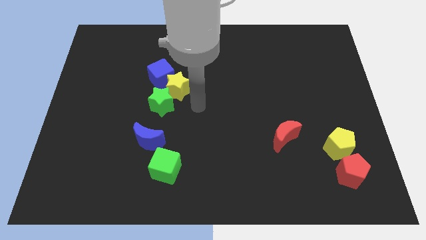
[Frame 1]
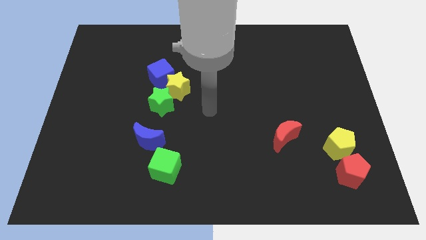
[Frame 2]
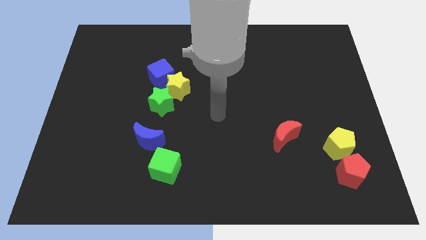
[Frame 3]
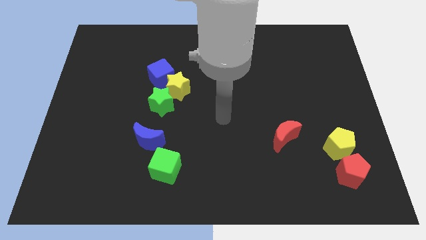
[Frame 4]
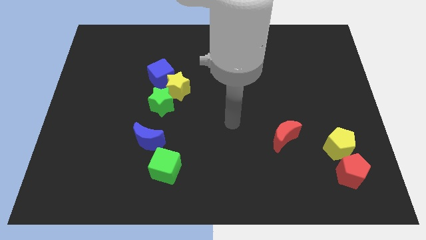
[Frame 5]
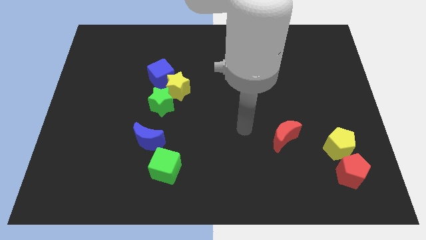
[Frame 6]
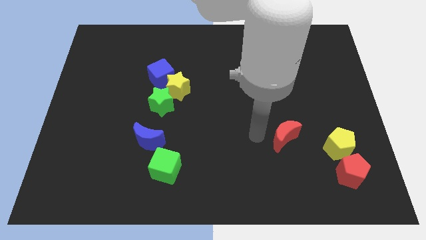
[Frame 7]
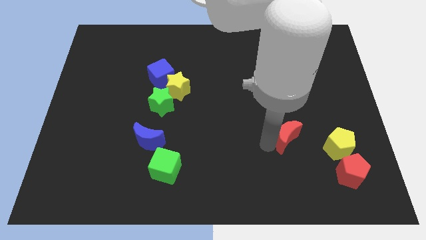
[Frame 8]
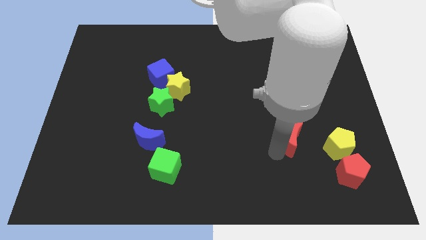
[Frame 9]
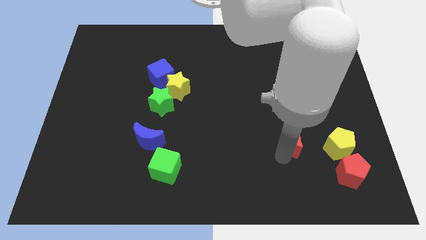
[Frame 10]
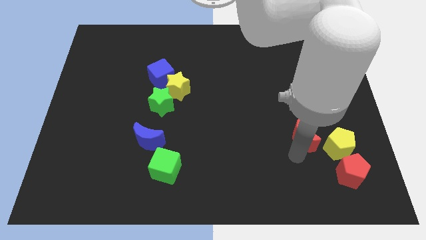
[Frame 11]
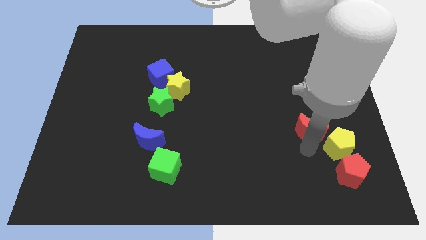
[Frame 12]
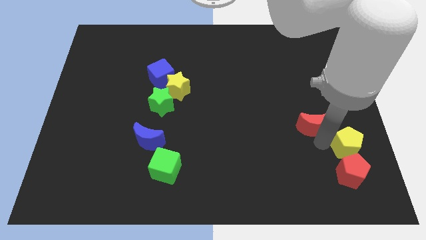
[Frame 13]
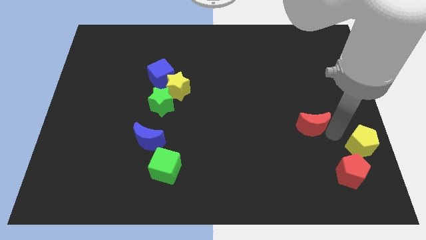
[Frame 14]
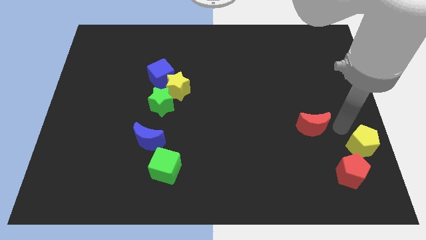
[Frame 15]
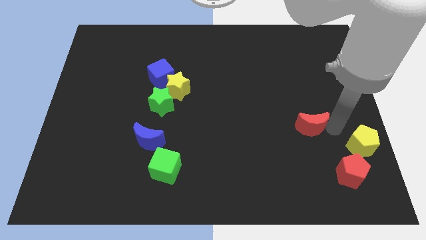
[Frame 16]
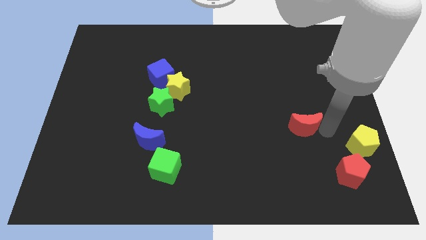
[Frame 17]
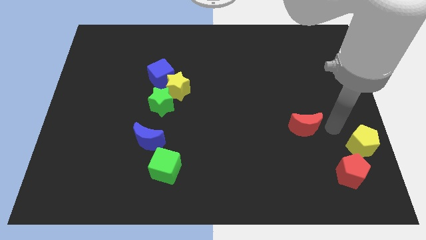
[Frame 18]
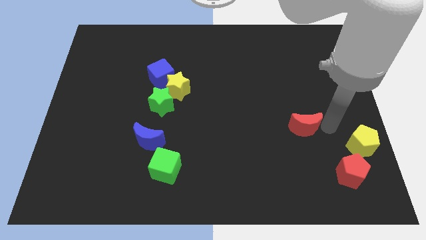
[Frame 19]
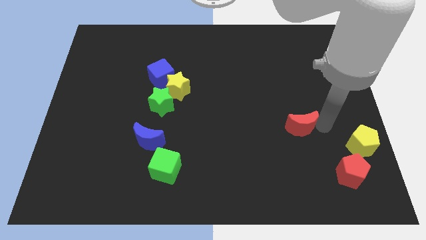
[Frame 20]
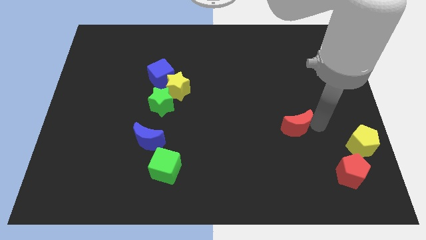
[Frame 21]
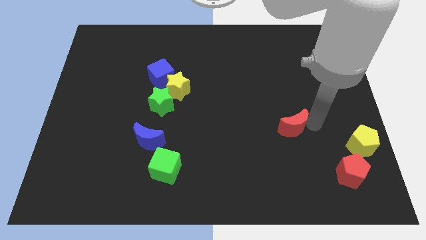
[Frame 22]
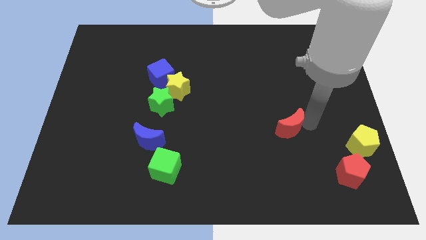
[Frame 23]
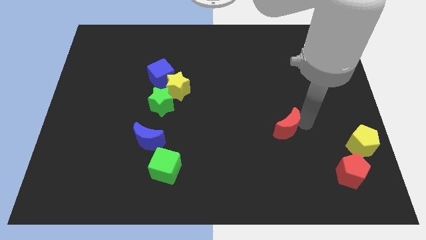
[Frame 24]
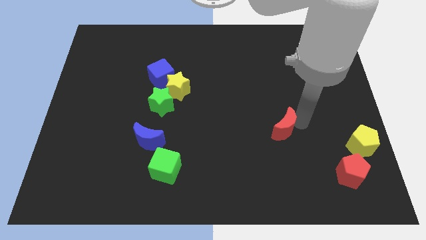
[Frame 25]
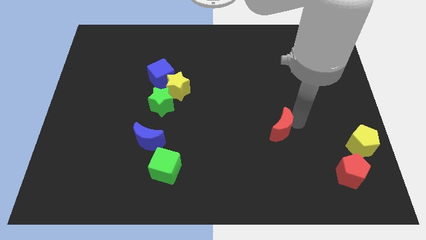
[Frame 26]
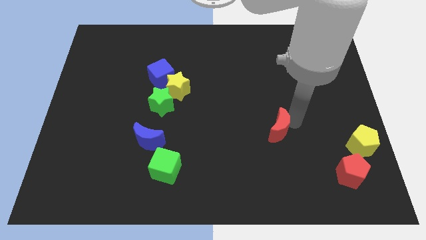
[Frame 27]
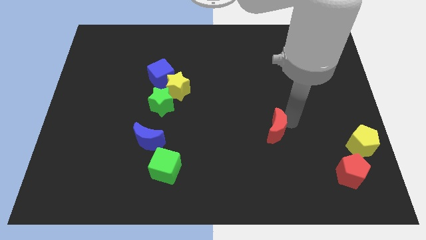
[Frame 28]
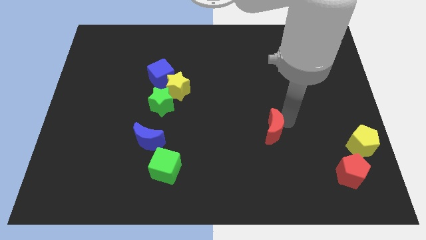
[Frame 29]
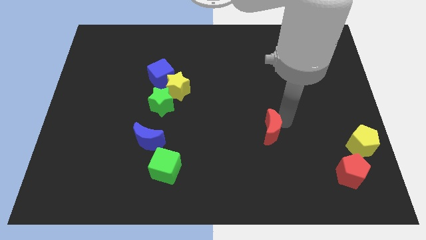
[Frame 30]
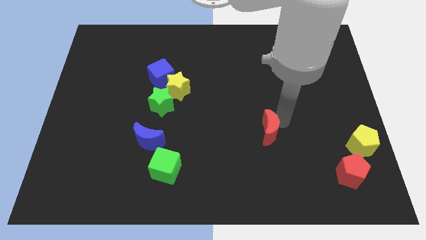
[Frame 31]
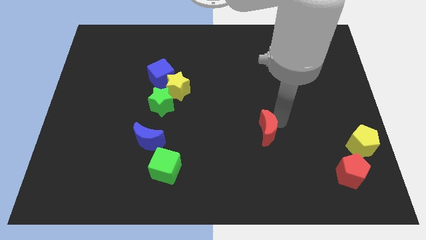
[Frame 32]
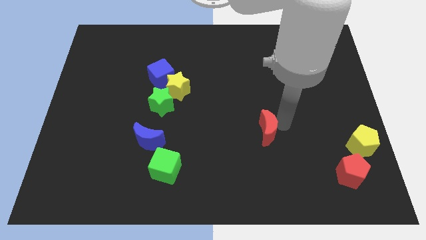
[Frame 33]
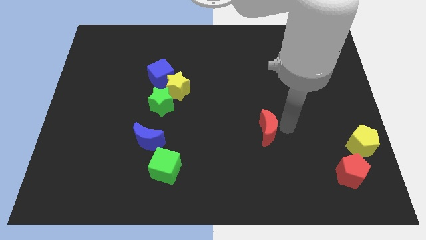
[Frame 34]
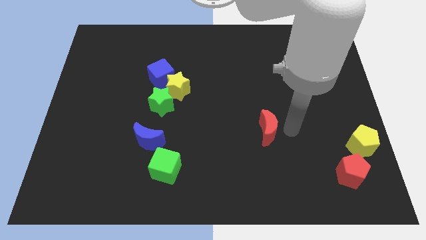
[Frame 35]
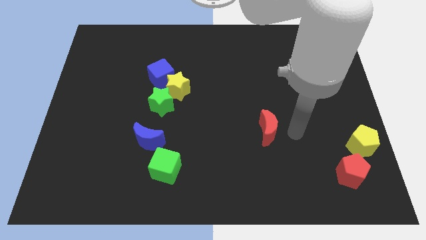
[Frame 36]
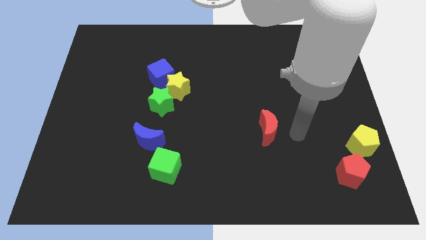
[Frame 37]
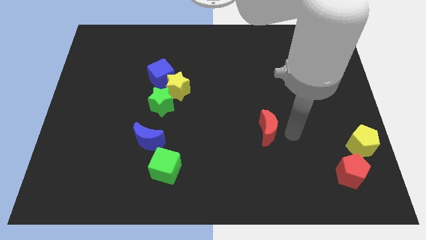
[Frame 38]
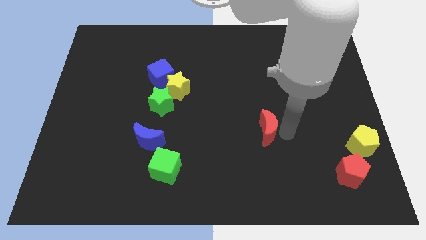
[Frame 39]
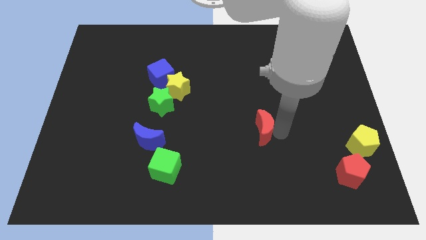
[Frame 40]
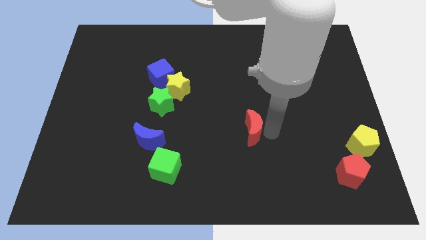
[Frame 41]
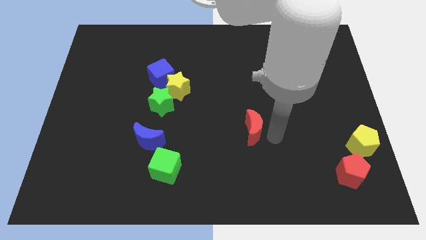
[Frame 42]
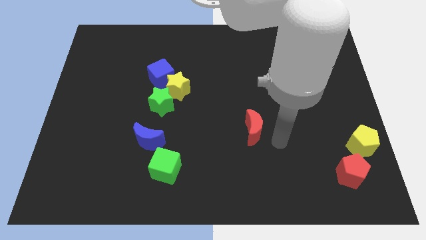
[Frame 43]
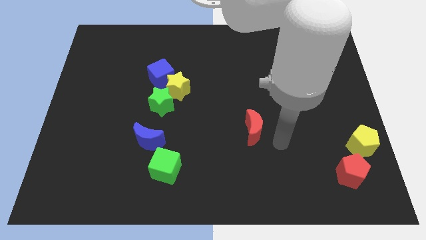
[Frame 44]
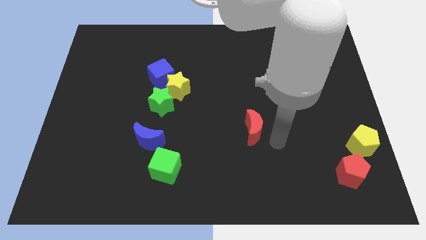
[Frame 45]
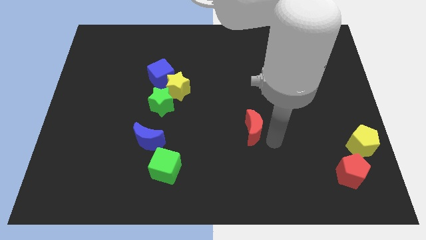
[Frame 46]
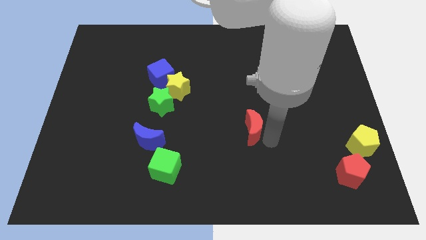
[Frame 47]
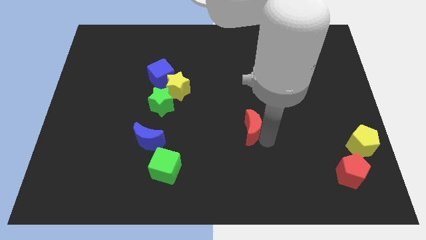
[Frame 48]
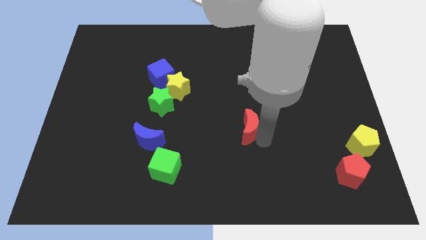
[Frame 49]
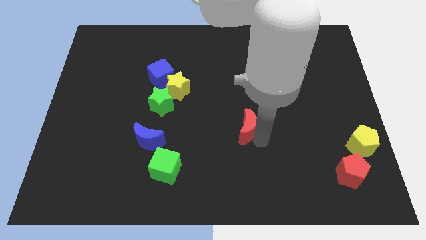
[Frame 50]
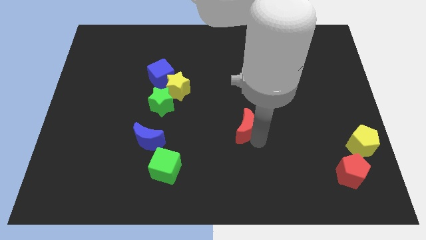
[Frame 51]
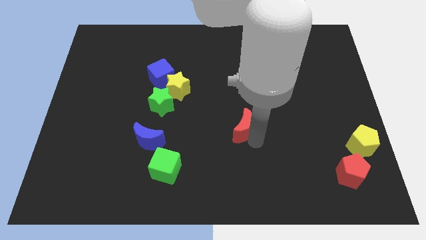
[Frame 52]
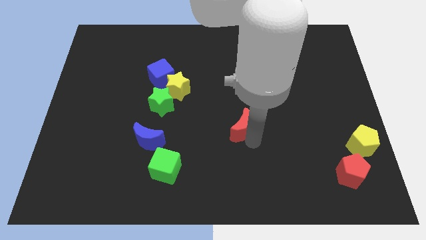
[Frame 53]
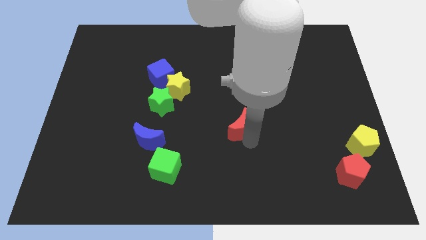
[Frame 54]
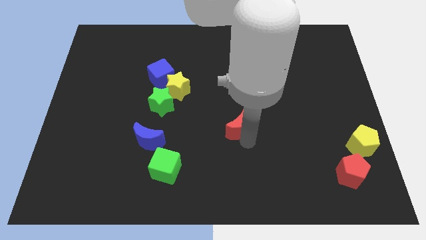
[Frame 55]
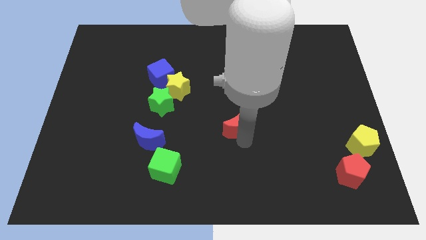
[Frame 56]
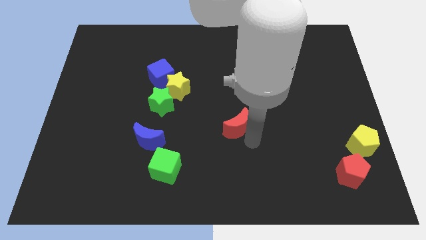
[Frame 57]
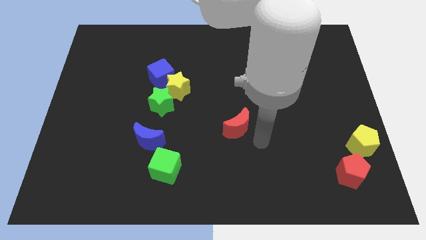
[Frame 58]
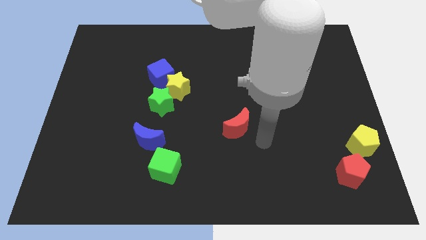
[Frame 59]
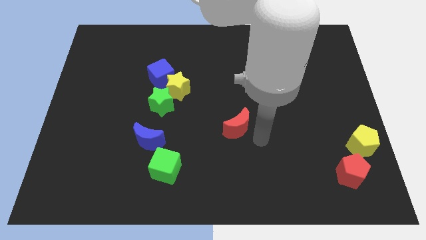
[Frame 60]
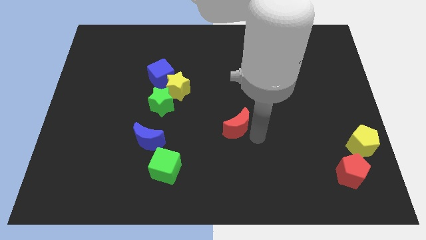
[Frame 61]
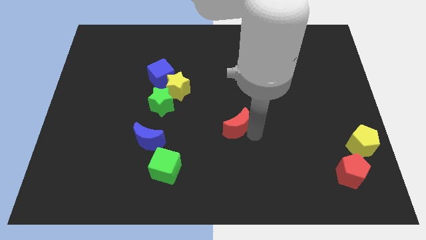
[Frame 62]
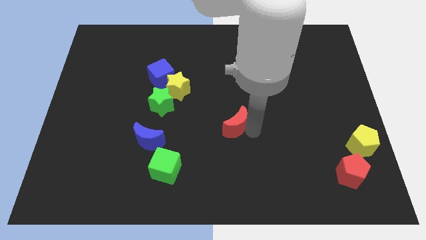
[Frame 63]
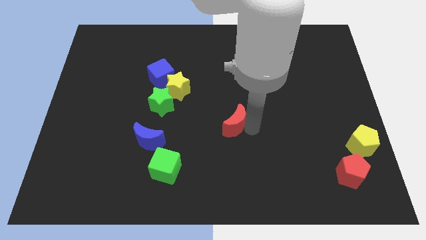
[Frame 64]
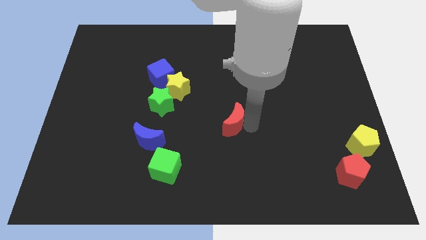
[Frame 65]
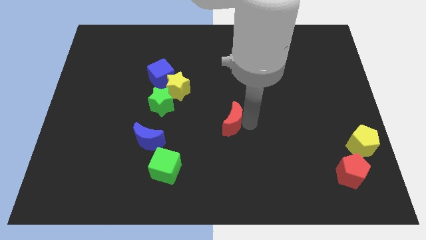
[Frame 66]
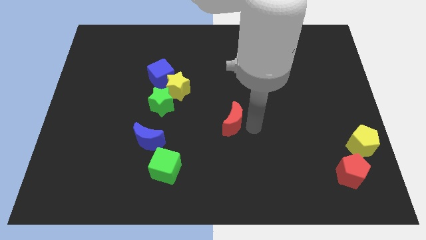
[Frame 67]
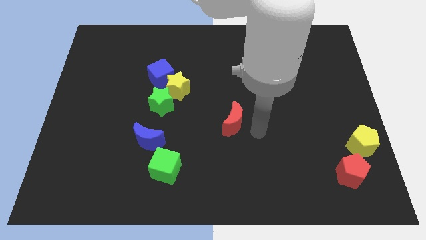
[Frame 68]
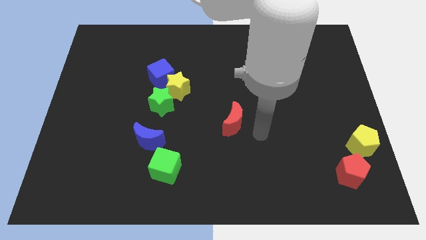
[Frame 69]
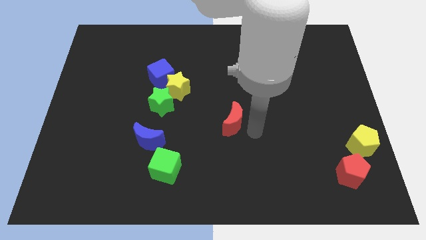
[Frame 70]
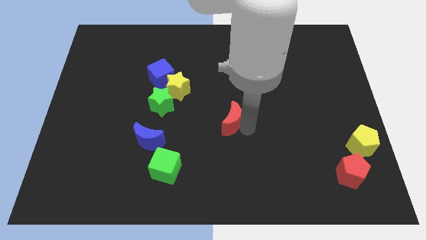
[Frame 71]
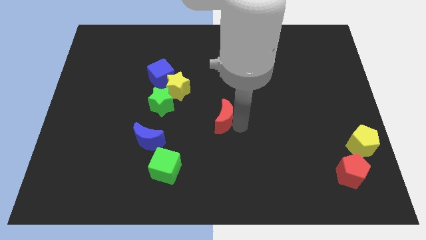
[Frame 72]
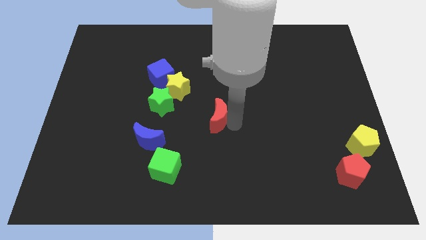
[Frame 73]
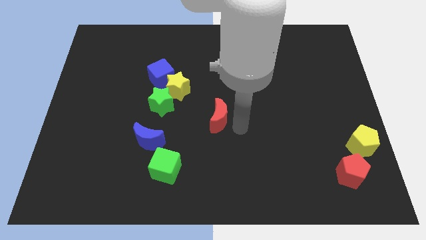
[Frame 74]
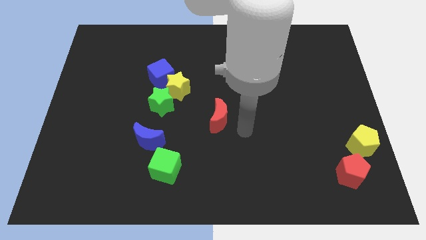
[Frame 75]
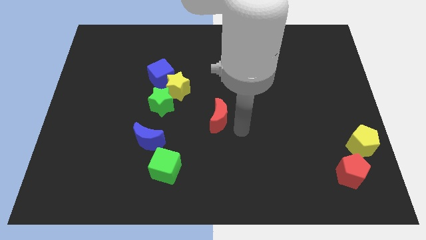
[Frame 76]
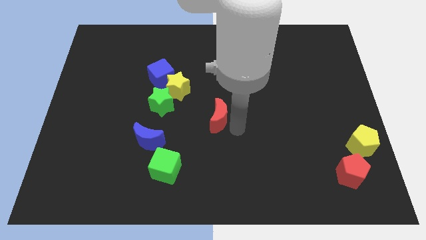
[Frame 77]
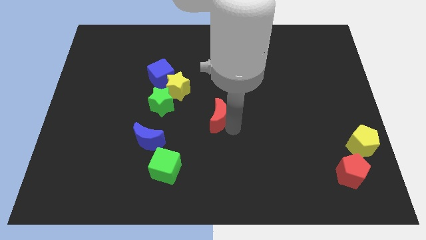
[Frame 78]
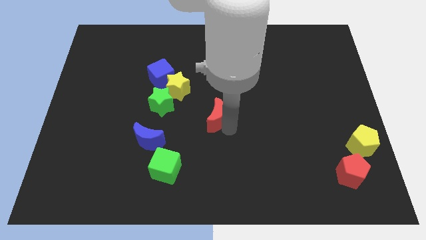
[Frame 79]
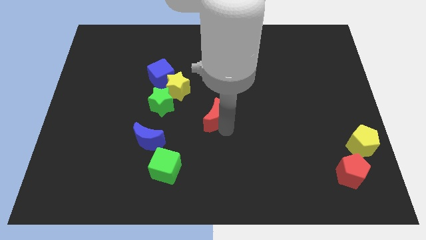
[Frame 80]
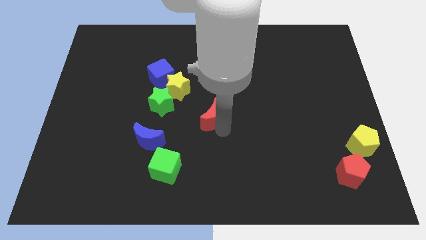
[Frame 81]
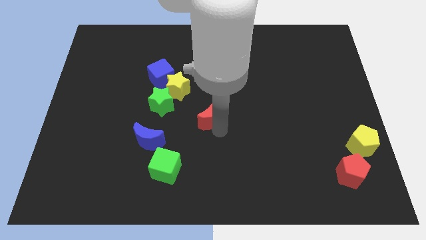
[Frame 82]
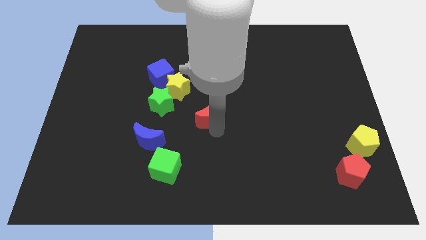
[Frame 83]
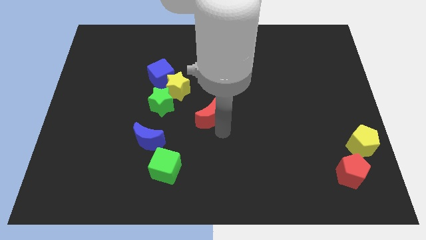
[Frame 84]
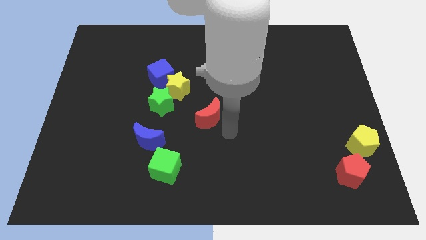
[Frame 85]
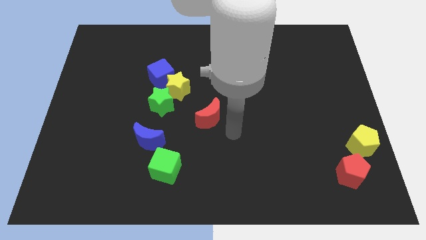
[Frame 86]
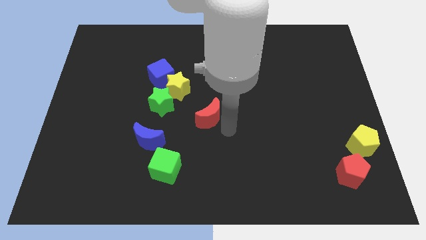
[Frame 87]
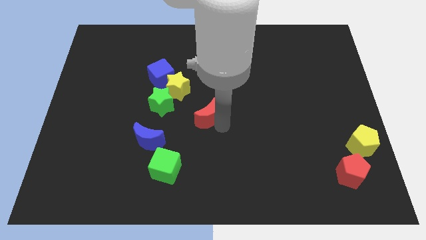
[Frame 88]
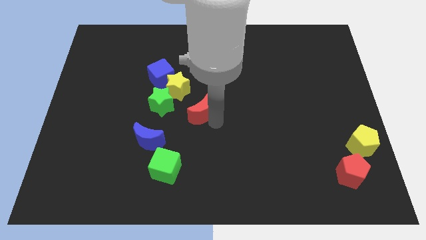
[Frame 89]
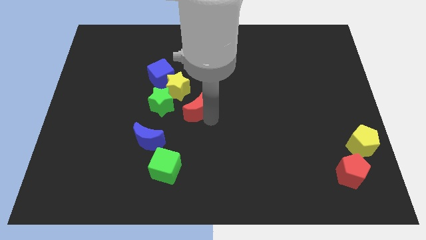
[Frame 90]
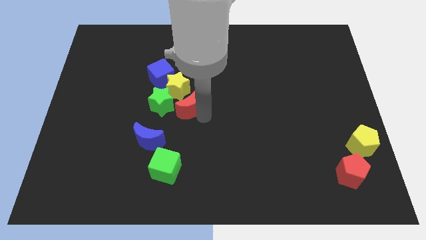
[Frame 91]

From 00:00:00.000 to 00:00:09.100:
slide the red moon to the bottom right of the blue cube
